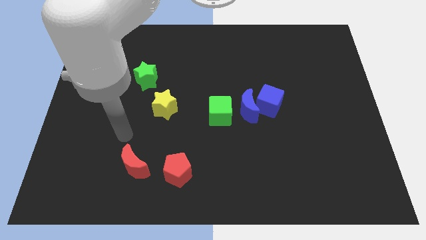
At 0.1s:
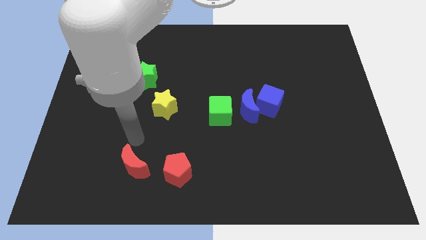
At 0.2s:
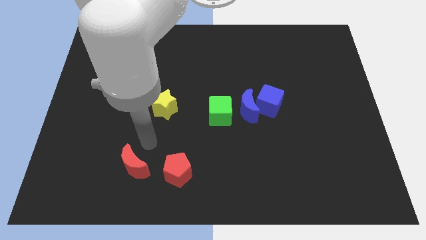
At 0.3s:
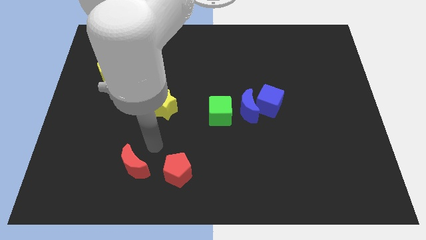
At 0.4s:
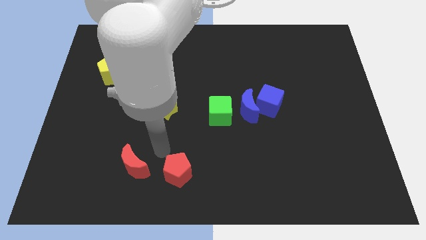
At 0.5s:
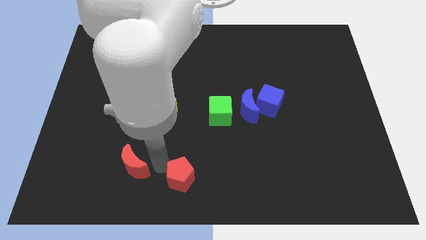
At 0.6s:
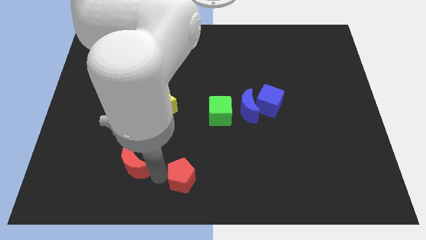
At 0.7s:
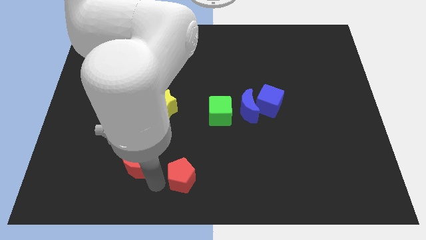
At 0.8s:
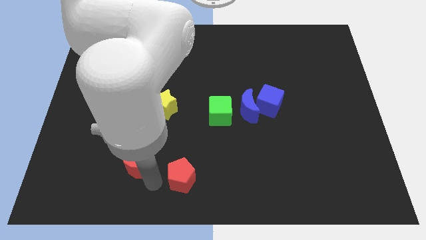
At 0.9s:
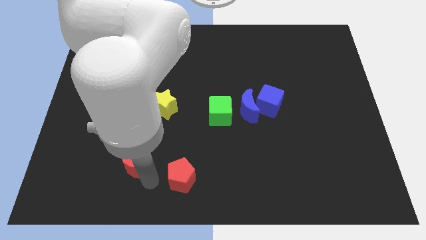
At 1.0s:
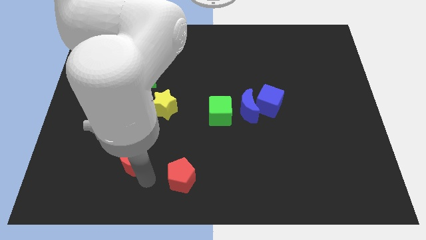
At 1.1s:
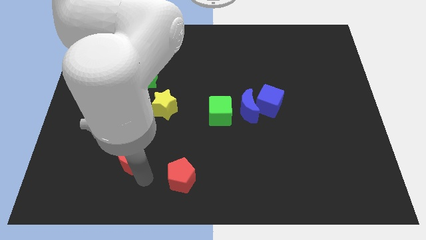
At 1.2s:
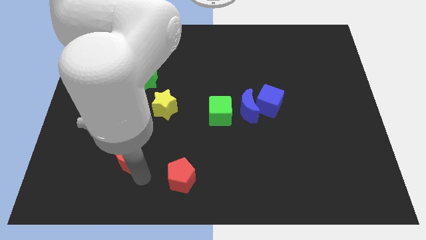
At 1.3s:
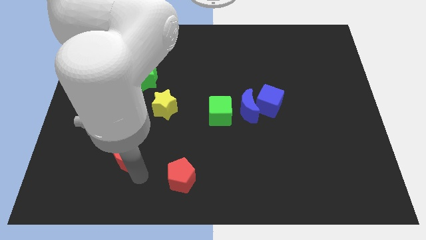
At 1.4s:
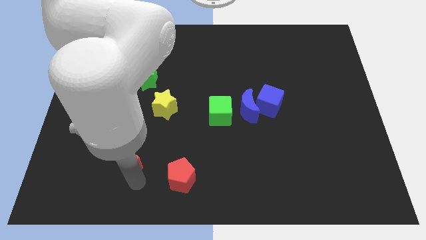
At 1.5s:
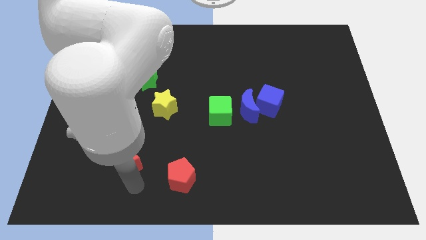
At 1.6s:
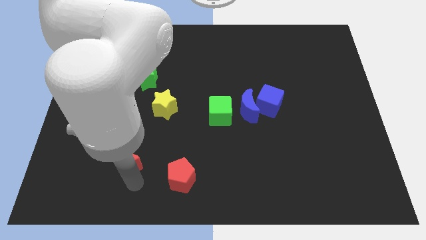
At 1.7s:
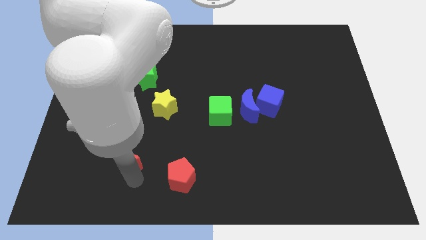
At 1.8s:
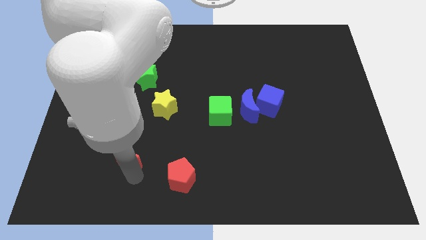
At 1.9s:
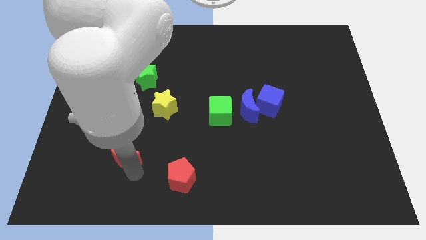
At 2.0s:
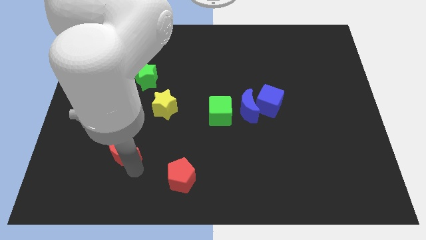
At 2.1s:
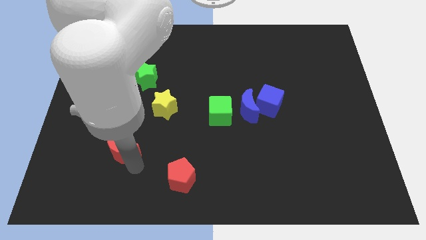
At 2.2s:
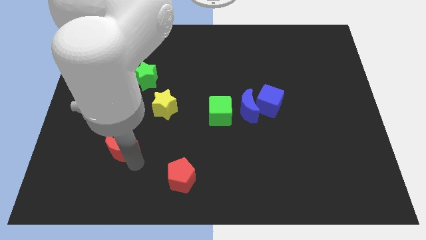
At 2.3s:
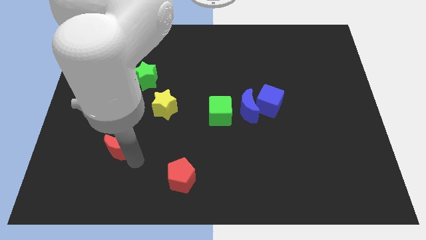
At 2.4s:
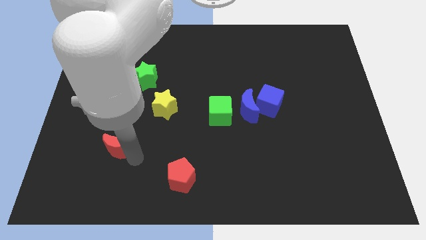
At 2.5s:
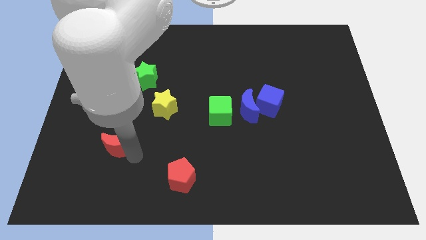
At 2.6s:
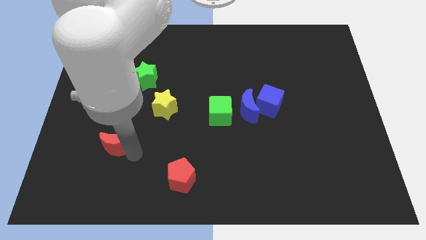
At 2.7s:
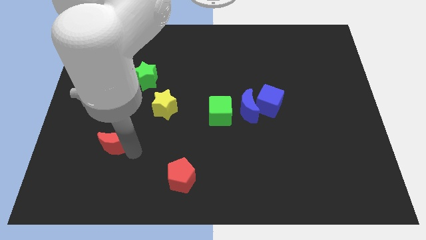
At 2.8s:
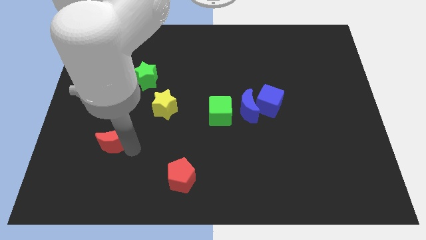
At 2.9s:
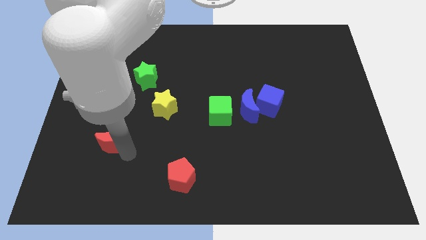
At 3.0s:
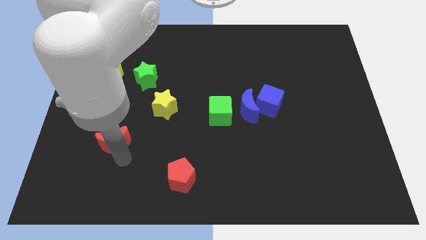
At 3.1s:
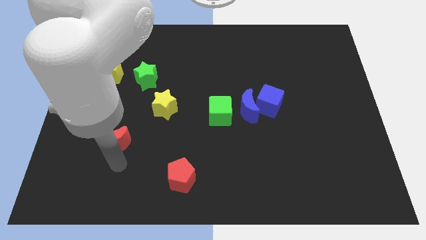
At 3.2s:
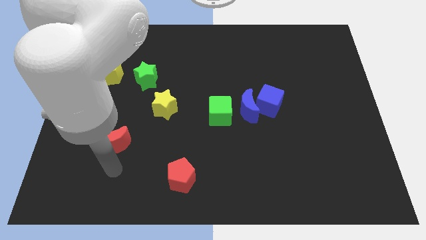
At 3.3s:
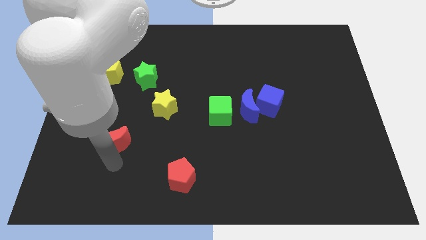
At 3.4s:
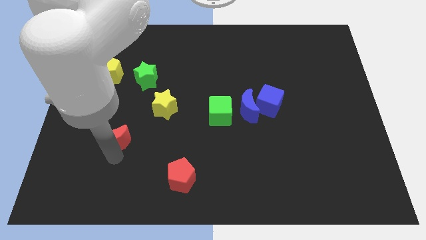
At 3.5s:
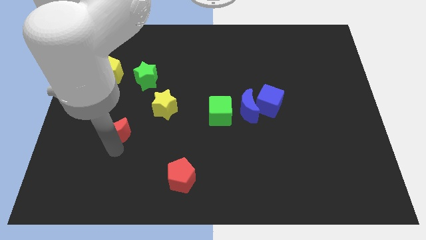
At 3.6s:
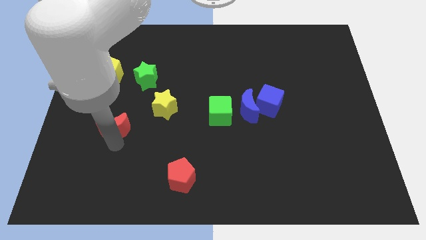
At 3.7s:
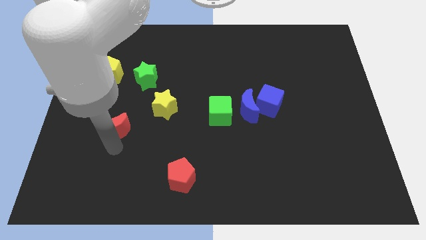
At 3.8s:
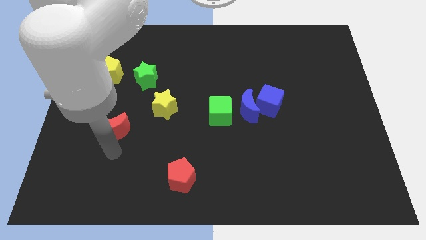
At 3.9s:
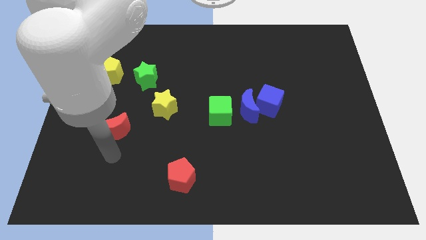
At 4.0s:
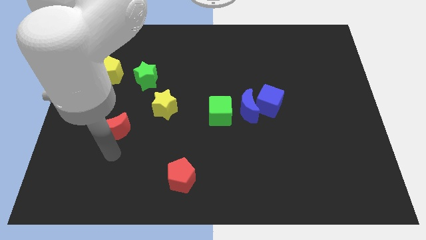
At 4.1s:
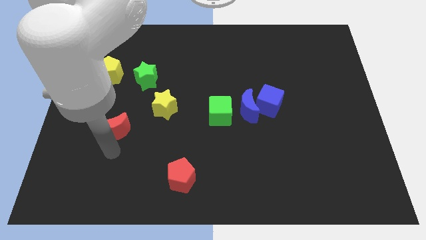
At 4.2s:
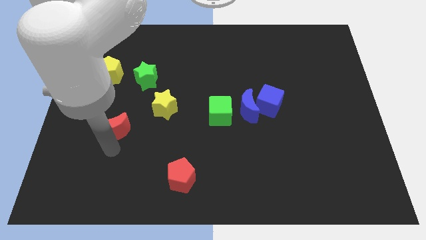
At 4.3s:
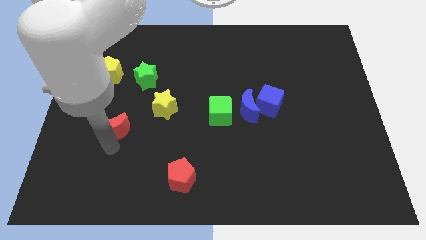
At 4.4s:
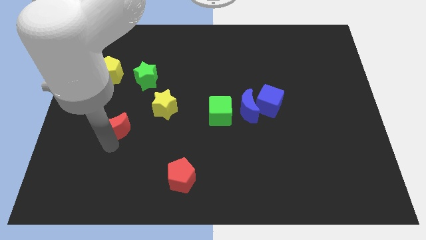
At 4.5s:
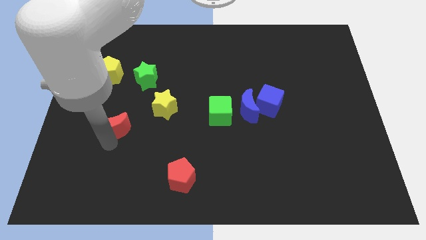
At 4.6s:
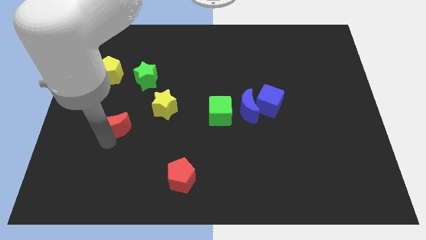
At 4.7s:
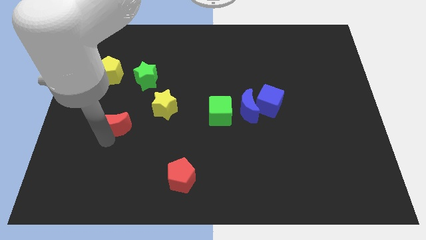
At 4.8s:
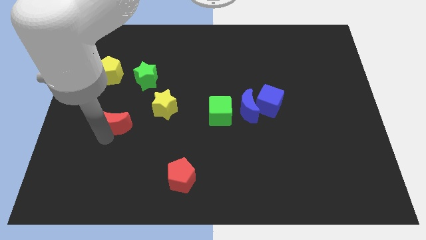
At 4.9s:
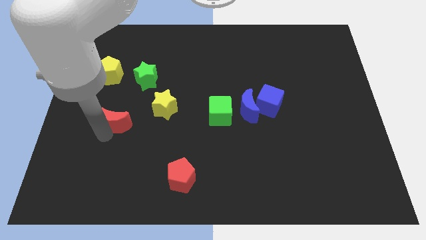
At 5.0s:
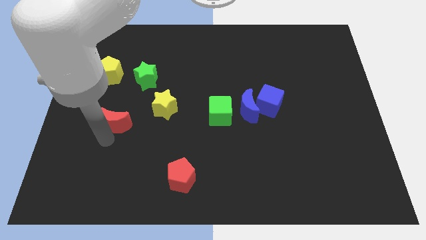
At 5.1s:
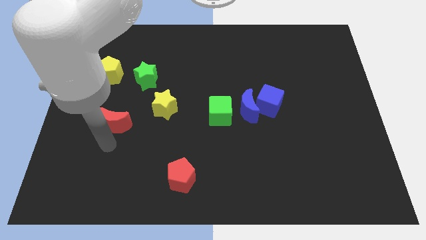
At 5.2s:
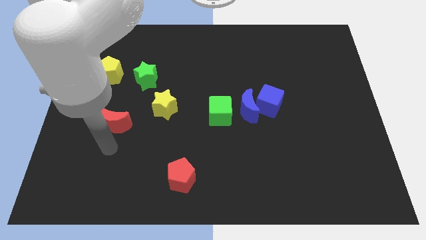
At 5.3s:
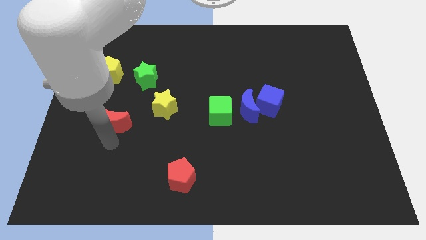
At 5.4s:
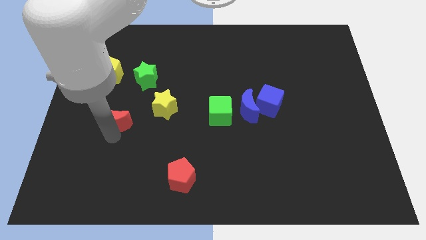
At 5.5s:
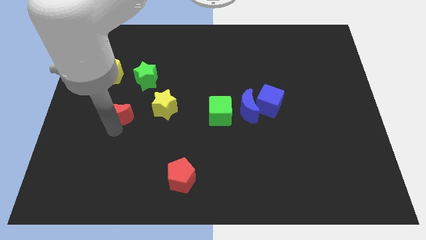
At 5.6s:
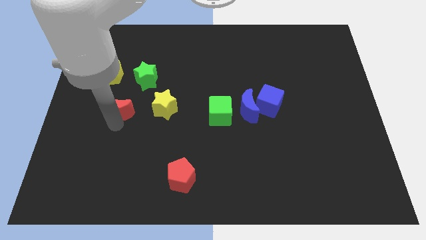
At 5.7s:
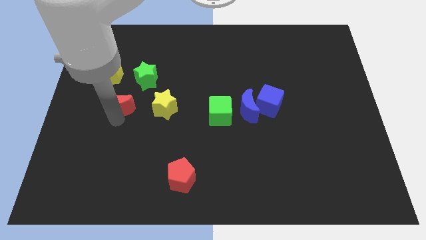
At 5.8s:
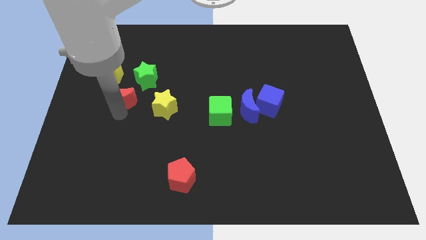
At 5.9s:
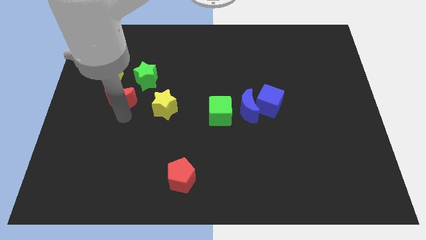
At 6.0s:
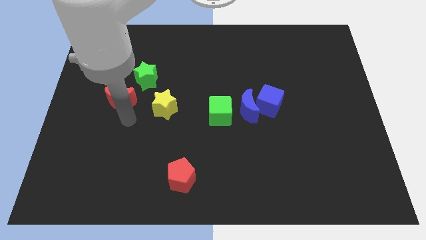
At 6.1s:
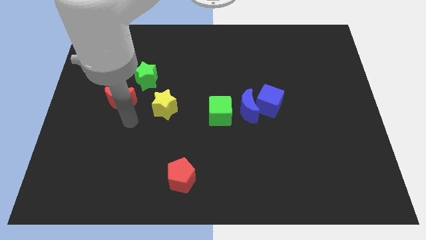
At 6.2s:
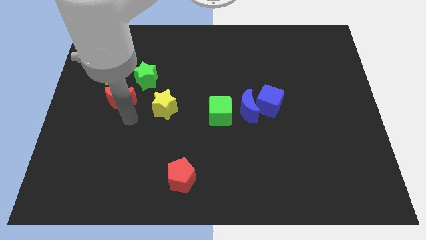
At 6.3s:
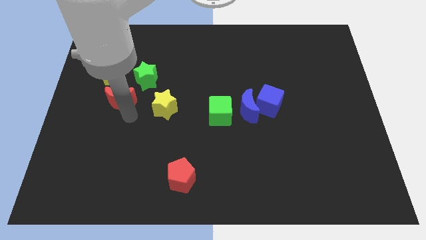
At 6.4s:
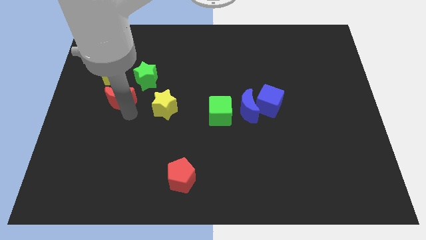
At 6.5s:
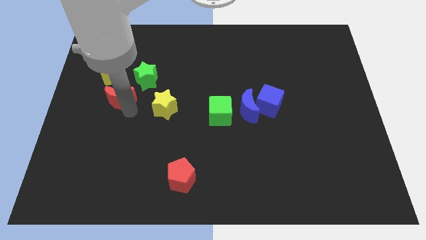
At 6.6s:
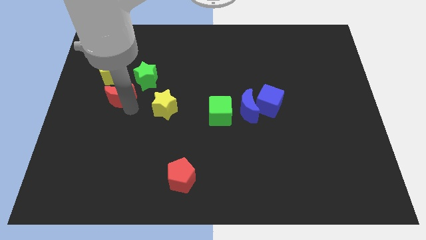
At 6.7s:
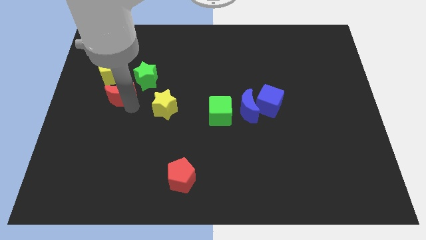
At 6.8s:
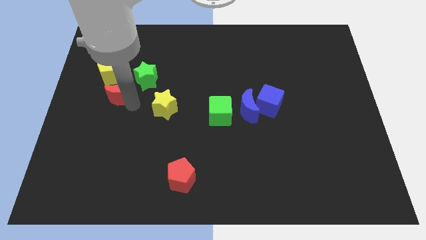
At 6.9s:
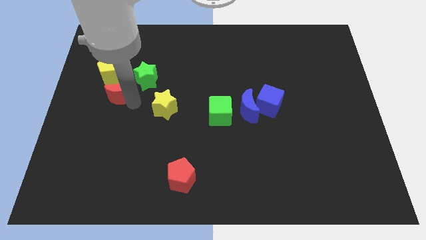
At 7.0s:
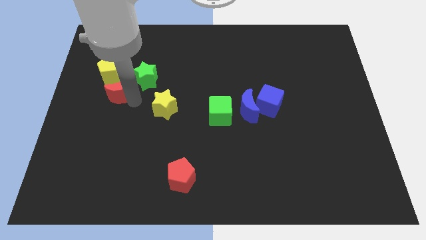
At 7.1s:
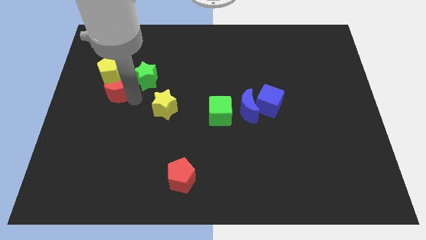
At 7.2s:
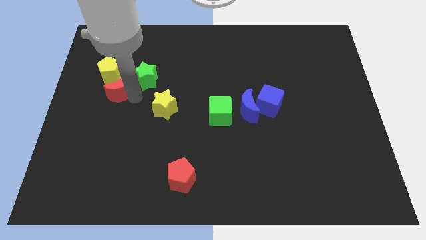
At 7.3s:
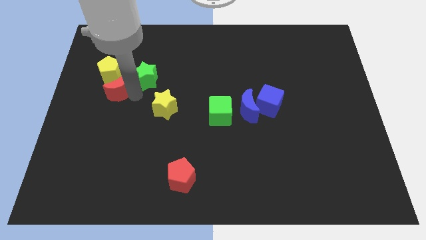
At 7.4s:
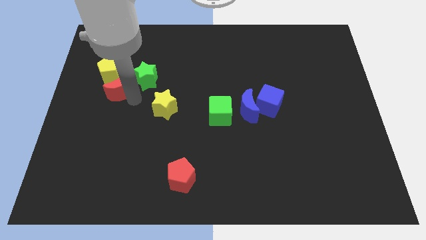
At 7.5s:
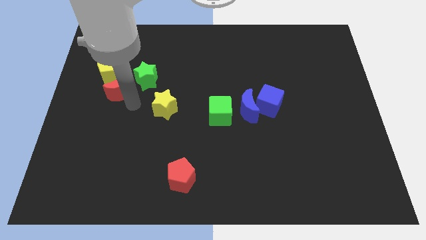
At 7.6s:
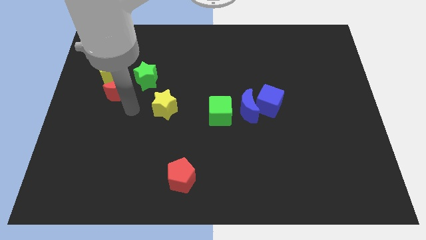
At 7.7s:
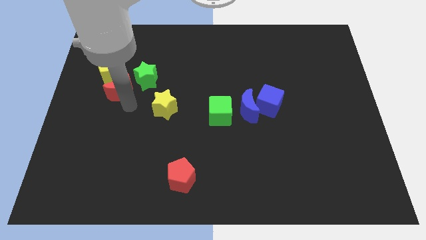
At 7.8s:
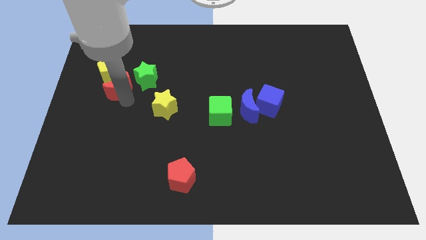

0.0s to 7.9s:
move the red moon next to the yellow pentagon
